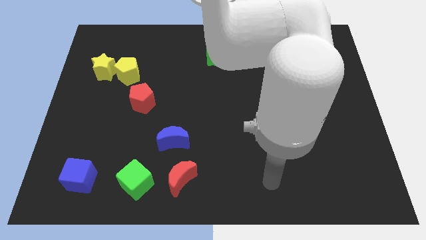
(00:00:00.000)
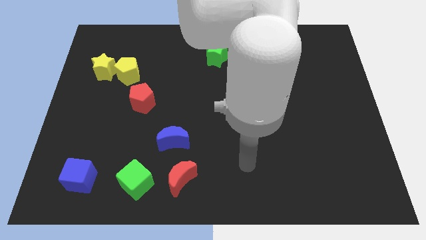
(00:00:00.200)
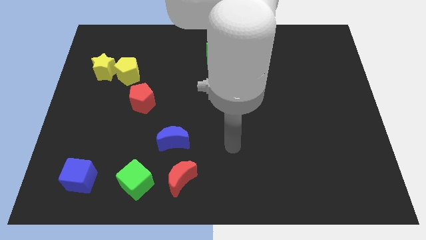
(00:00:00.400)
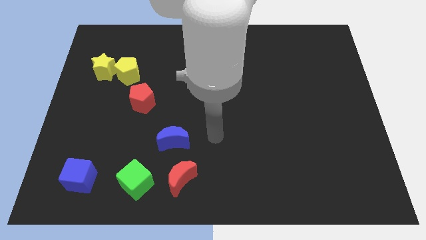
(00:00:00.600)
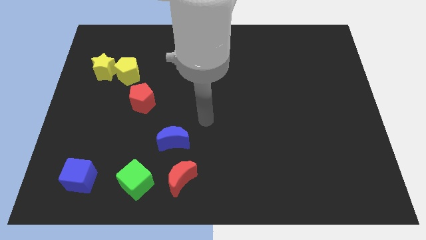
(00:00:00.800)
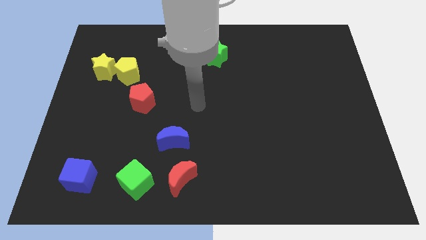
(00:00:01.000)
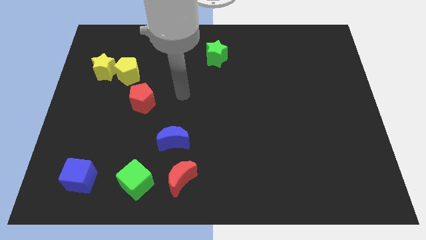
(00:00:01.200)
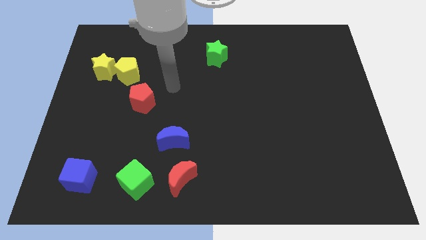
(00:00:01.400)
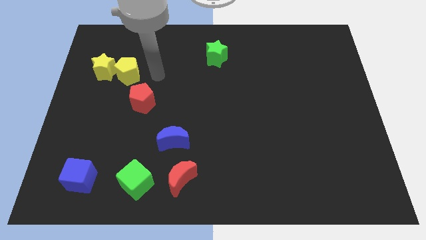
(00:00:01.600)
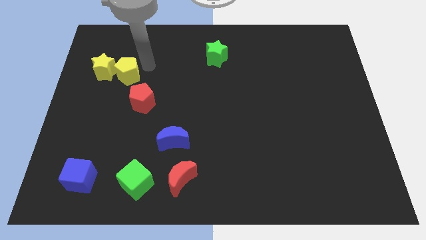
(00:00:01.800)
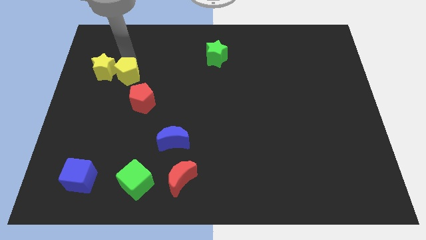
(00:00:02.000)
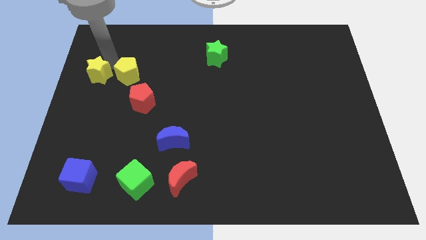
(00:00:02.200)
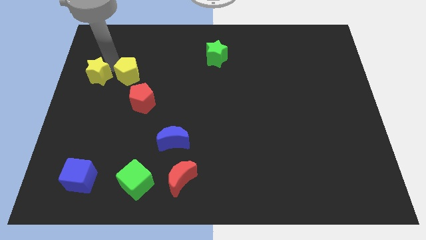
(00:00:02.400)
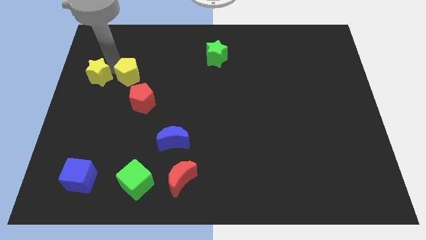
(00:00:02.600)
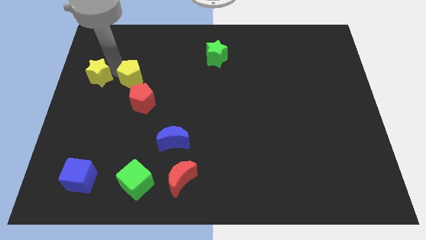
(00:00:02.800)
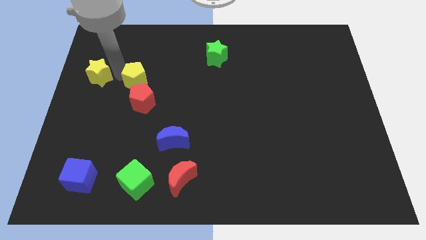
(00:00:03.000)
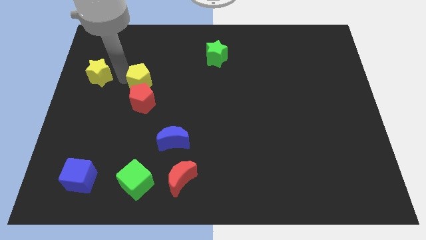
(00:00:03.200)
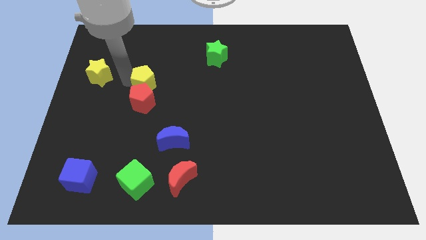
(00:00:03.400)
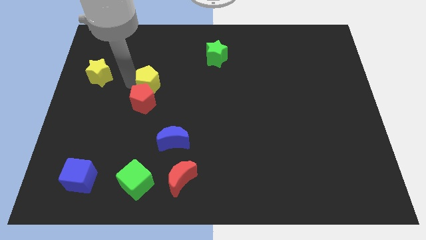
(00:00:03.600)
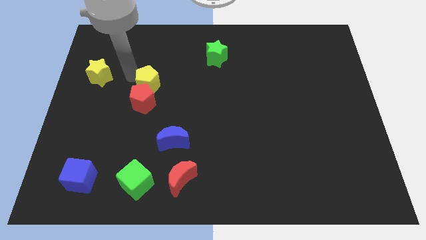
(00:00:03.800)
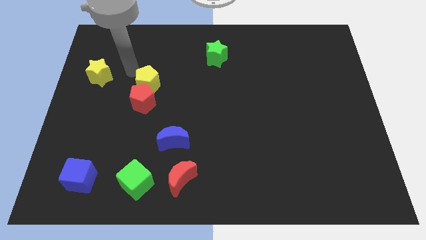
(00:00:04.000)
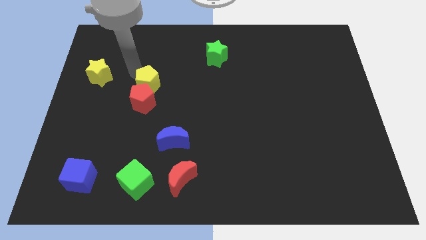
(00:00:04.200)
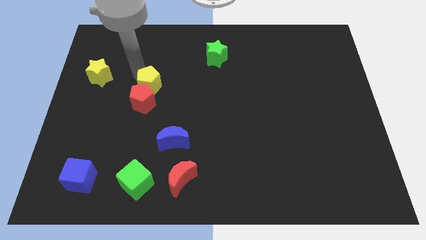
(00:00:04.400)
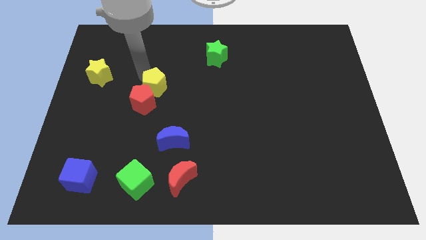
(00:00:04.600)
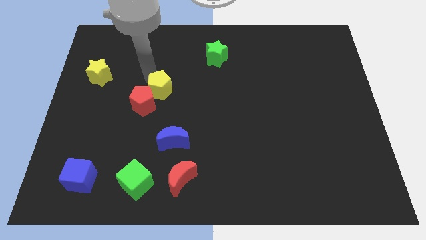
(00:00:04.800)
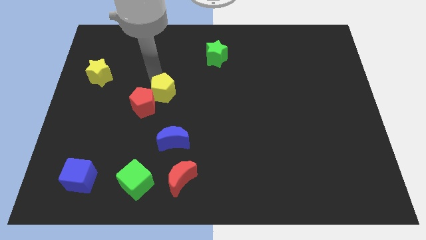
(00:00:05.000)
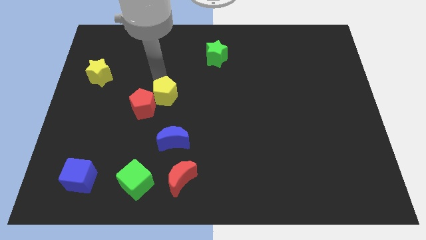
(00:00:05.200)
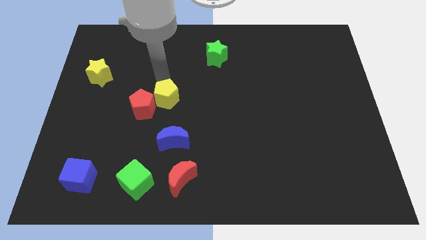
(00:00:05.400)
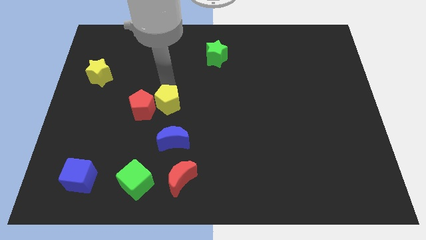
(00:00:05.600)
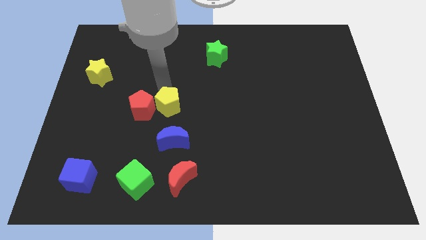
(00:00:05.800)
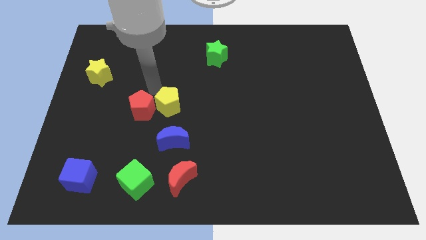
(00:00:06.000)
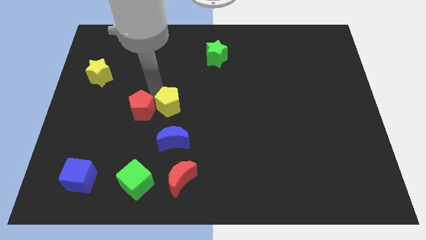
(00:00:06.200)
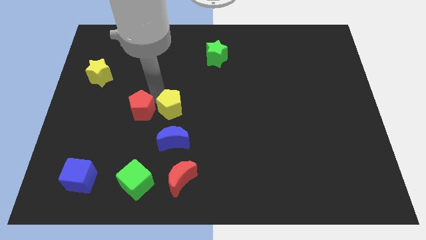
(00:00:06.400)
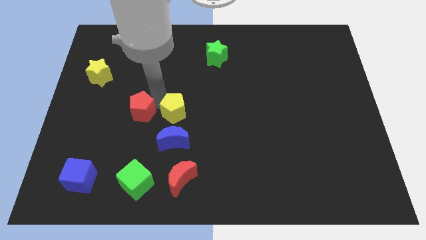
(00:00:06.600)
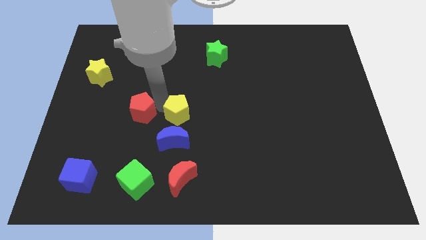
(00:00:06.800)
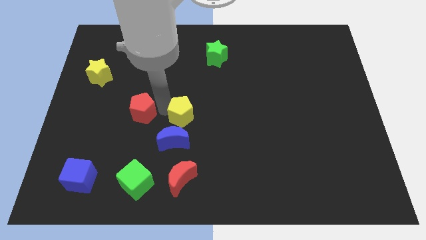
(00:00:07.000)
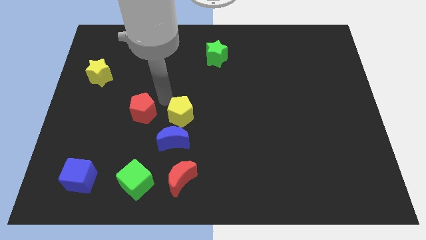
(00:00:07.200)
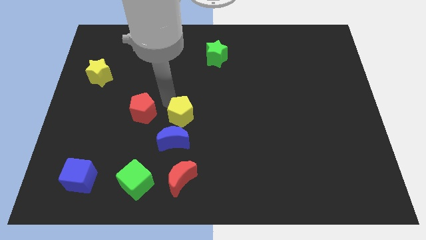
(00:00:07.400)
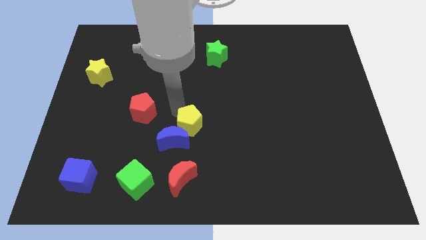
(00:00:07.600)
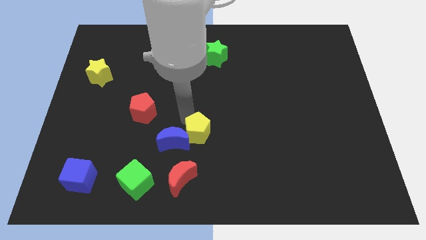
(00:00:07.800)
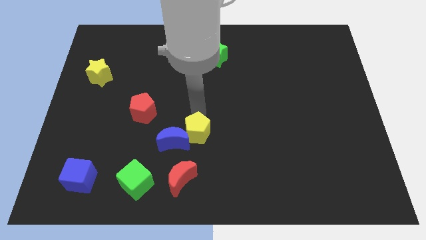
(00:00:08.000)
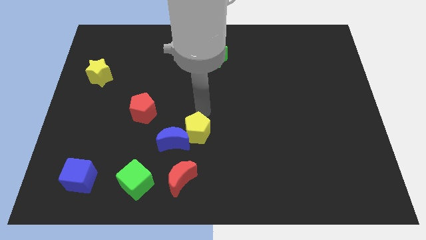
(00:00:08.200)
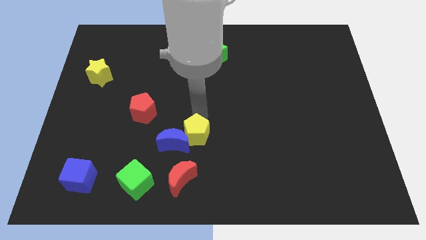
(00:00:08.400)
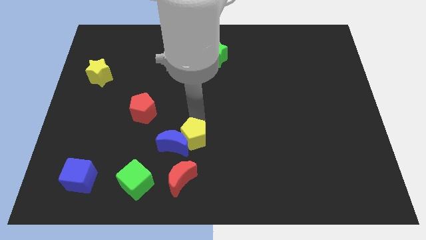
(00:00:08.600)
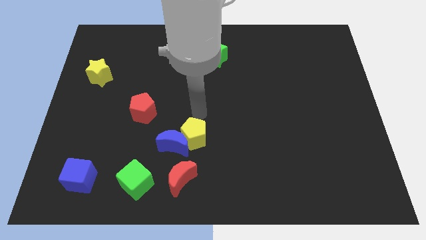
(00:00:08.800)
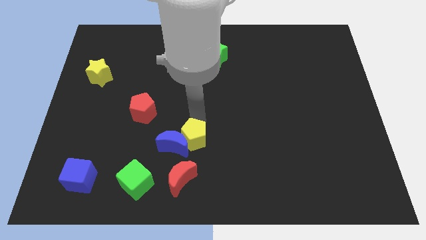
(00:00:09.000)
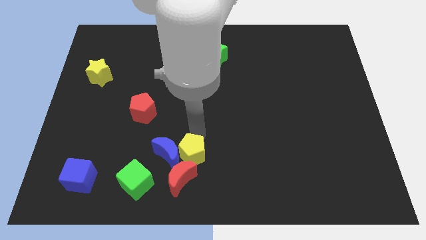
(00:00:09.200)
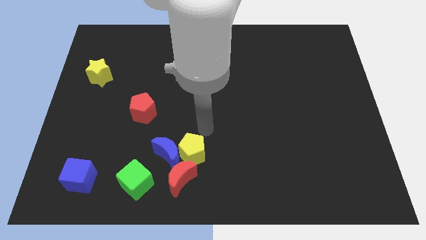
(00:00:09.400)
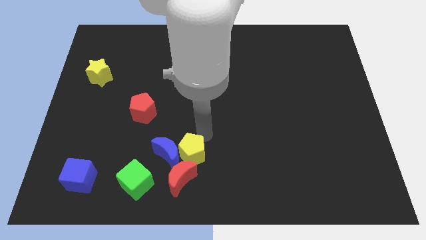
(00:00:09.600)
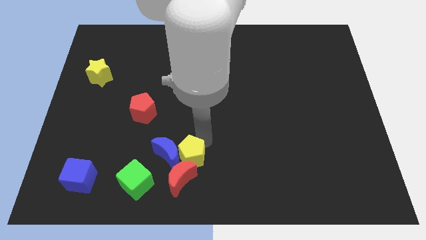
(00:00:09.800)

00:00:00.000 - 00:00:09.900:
put the yellow pentagon towards the red moon

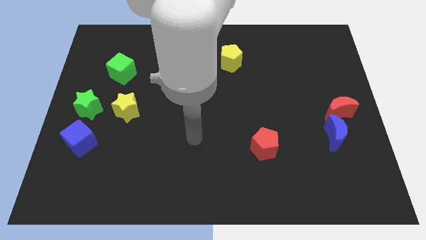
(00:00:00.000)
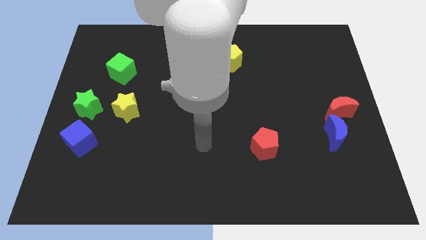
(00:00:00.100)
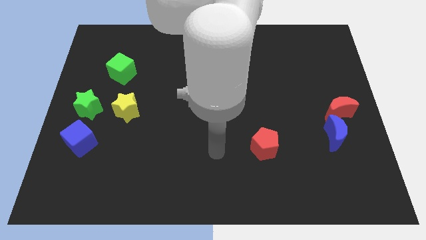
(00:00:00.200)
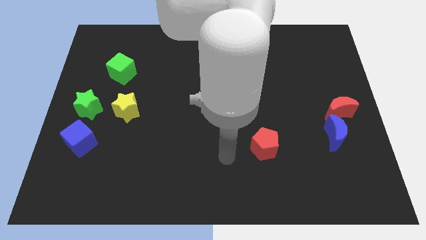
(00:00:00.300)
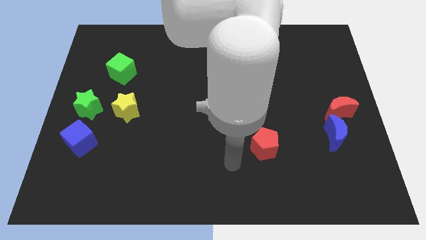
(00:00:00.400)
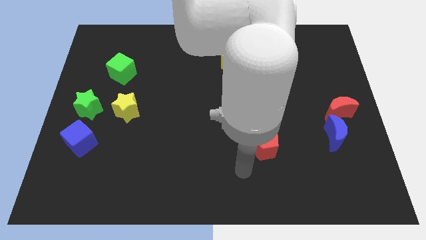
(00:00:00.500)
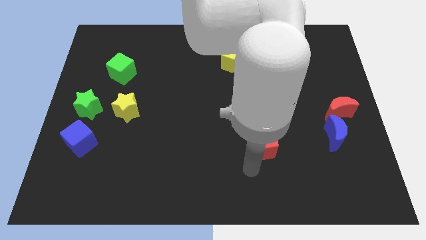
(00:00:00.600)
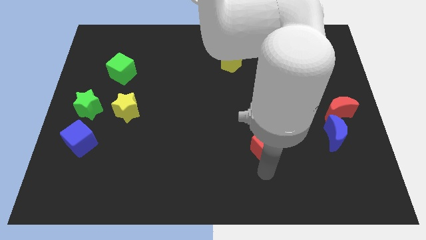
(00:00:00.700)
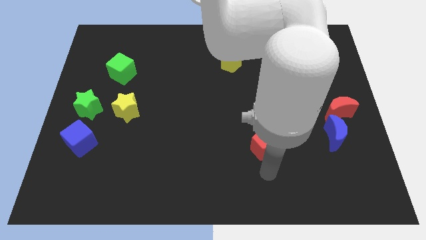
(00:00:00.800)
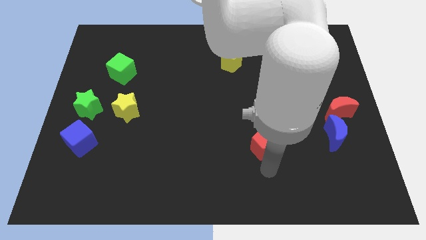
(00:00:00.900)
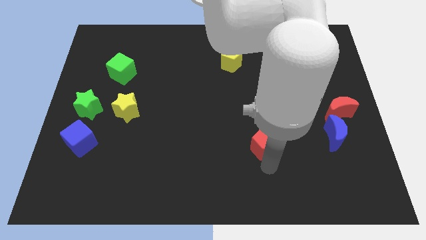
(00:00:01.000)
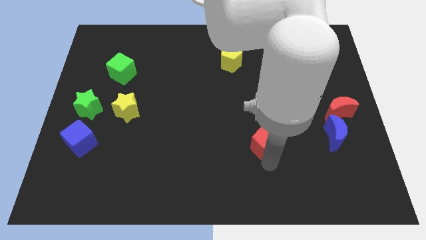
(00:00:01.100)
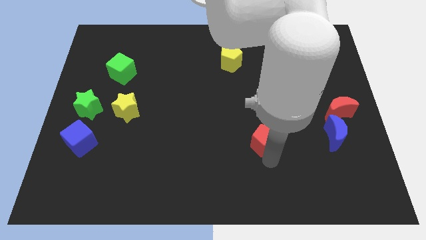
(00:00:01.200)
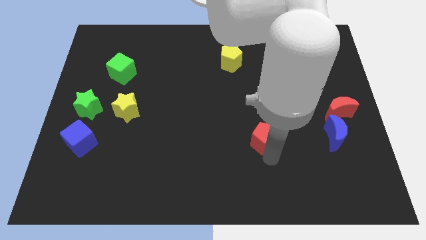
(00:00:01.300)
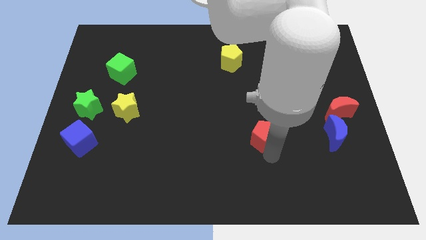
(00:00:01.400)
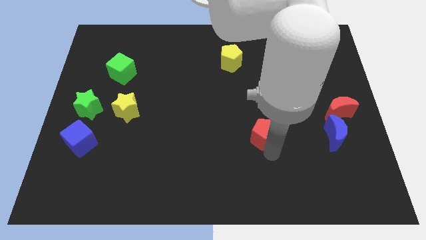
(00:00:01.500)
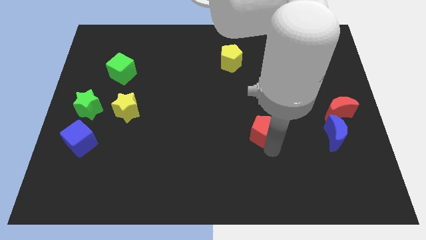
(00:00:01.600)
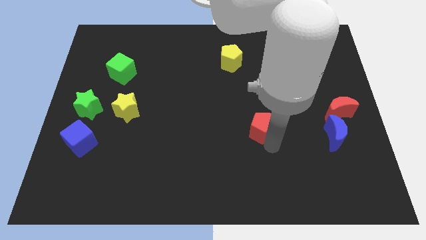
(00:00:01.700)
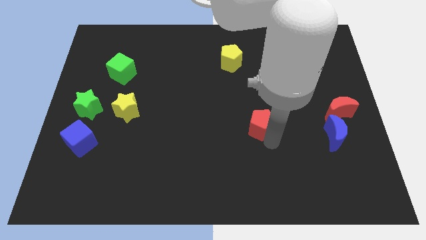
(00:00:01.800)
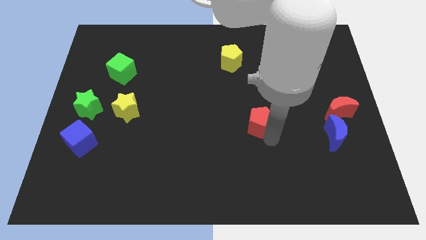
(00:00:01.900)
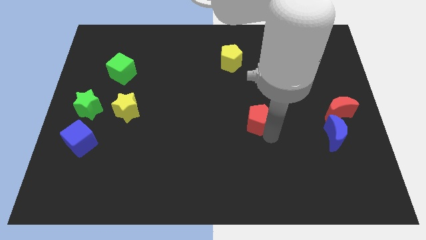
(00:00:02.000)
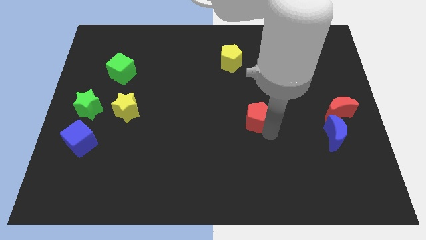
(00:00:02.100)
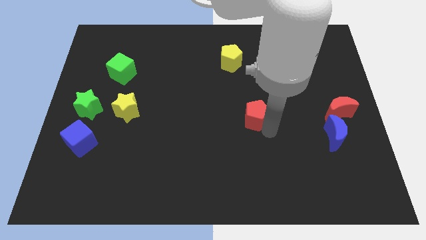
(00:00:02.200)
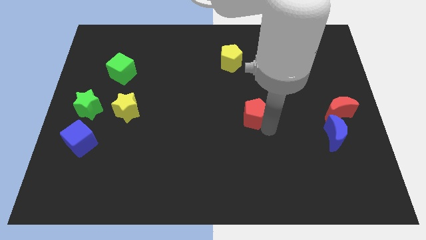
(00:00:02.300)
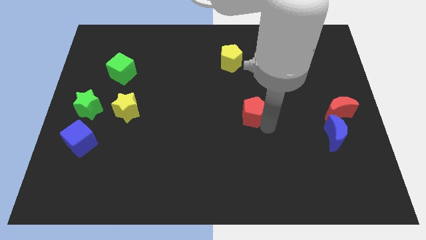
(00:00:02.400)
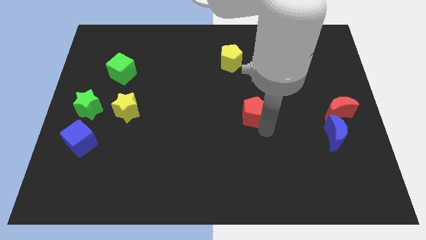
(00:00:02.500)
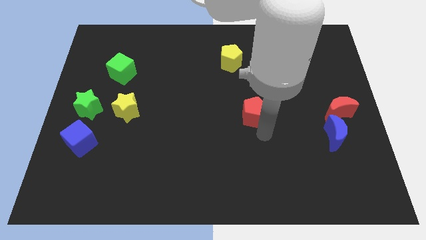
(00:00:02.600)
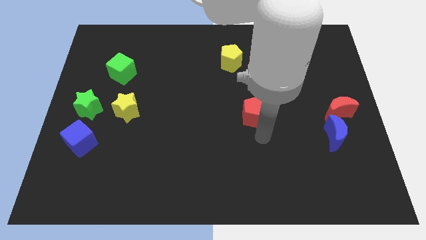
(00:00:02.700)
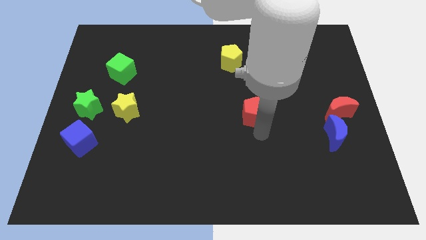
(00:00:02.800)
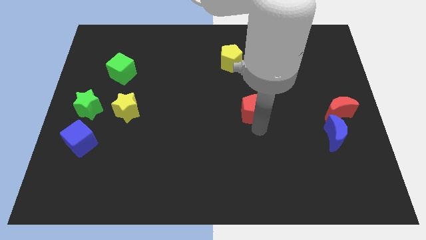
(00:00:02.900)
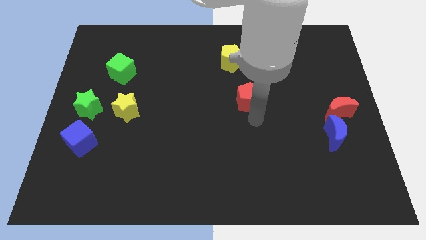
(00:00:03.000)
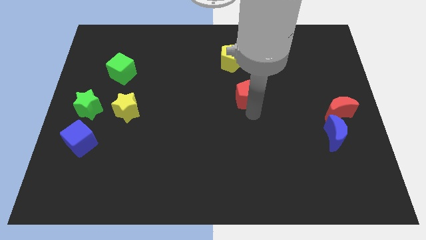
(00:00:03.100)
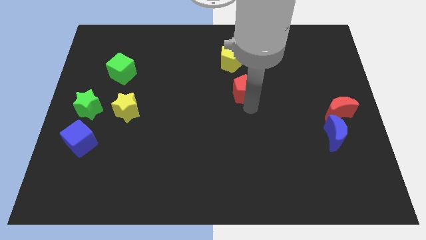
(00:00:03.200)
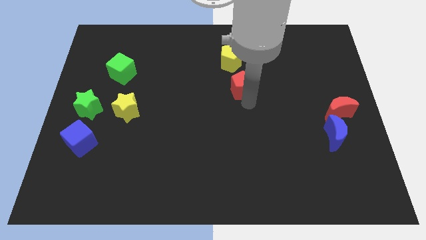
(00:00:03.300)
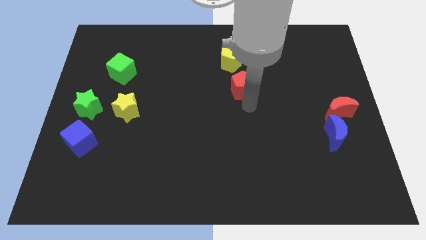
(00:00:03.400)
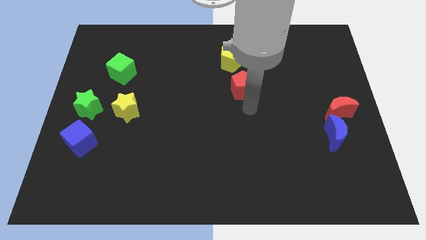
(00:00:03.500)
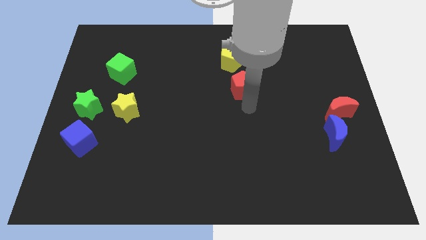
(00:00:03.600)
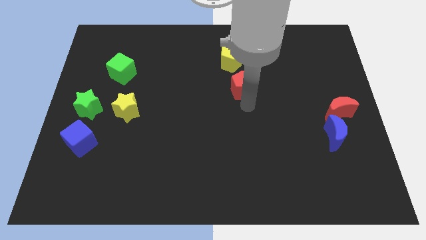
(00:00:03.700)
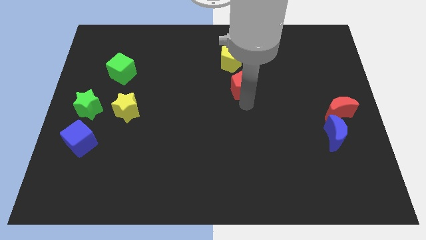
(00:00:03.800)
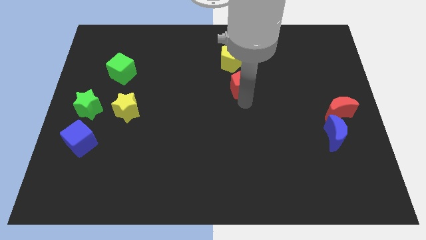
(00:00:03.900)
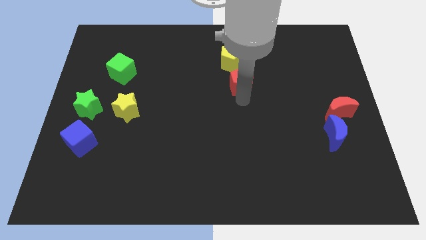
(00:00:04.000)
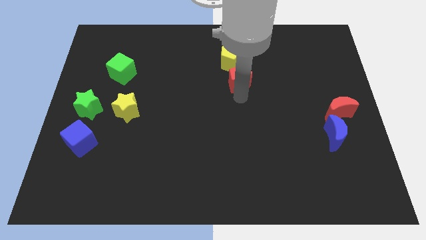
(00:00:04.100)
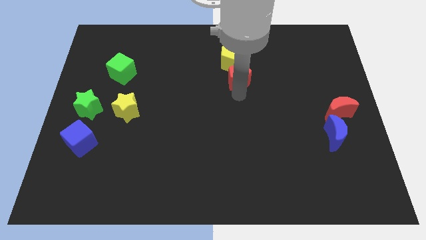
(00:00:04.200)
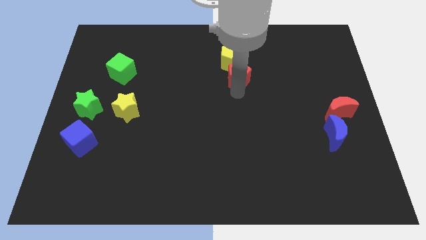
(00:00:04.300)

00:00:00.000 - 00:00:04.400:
put the red pentagon towards the yellow pentagon
